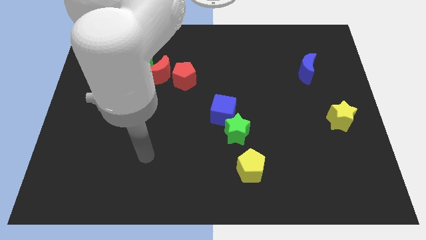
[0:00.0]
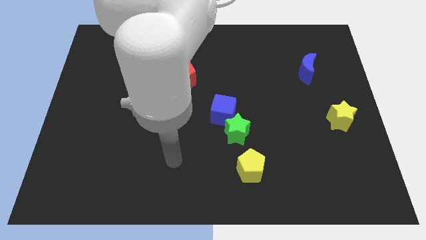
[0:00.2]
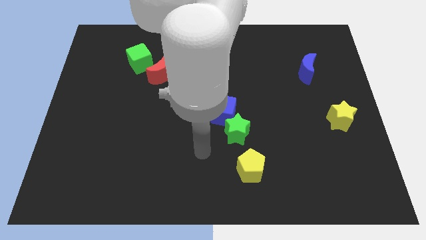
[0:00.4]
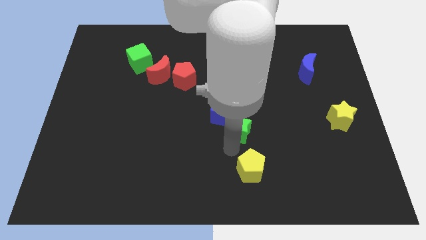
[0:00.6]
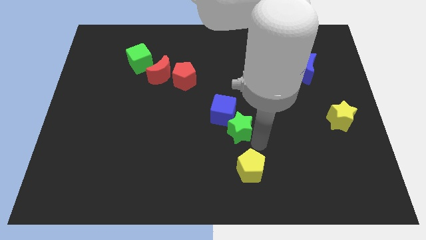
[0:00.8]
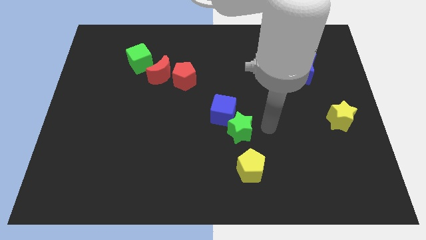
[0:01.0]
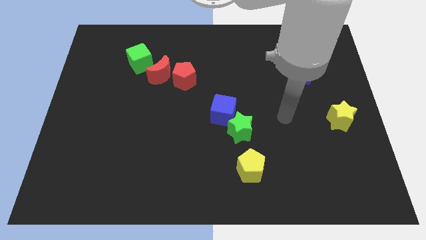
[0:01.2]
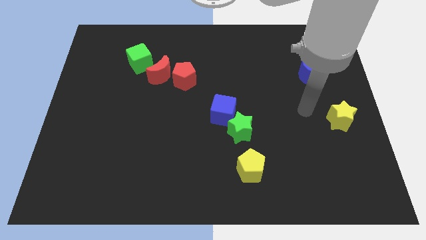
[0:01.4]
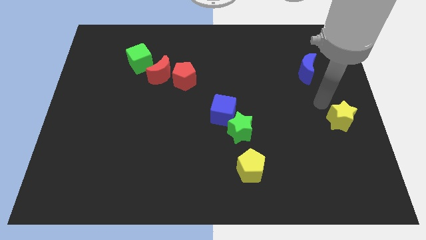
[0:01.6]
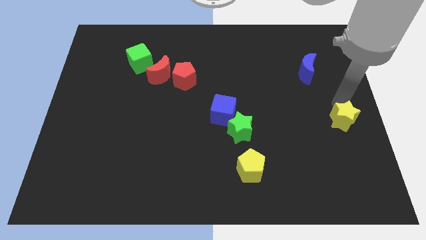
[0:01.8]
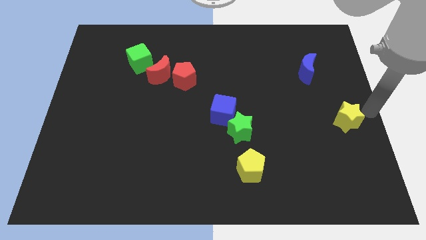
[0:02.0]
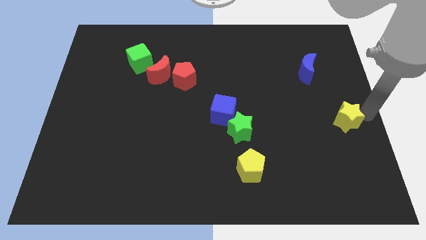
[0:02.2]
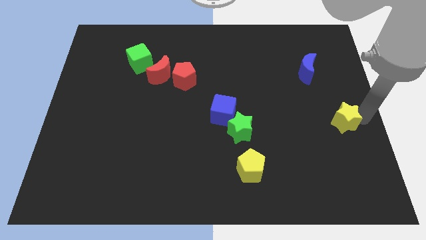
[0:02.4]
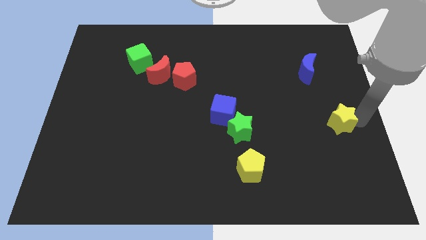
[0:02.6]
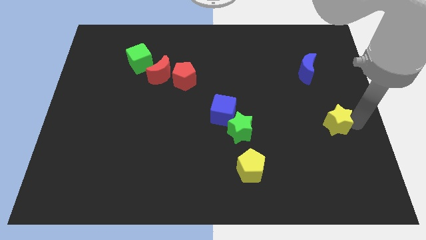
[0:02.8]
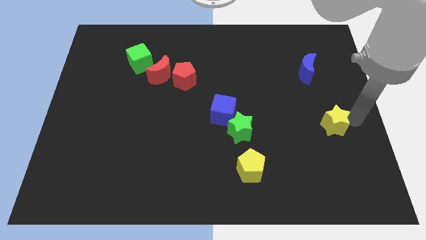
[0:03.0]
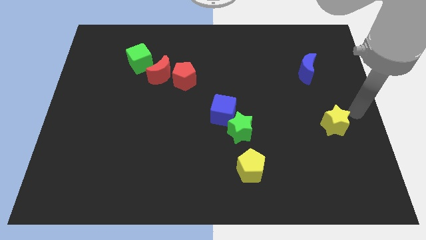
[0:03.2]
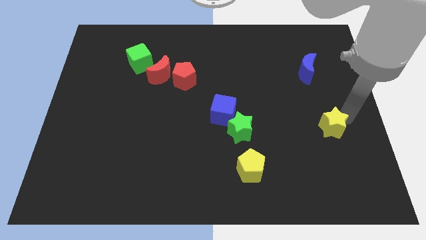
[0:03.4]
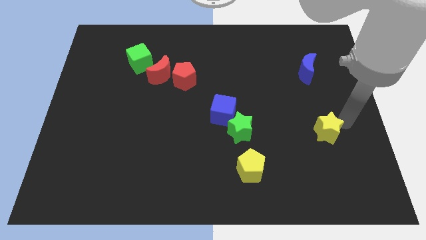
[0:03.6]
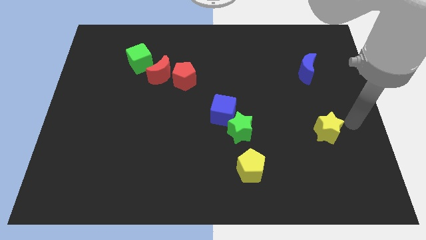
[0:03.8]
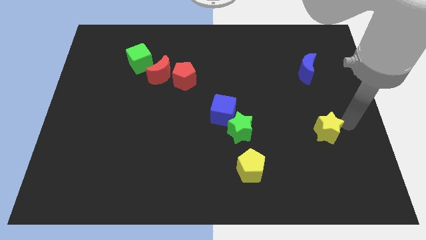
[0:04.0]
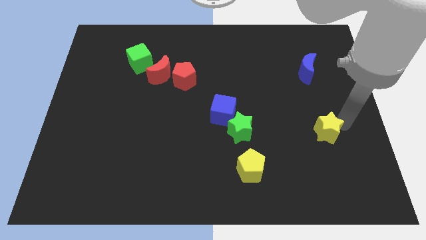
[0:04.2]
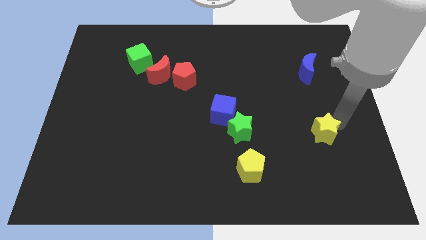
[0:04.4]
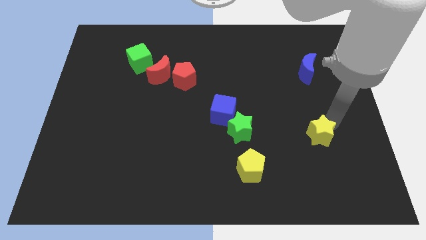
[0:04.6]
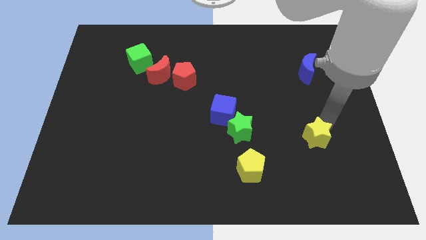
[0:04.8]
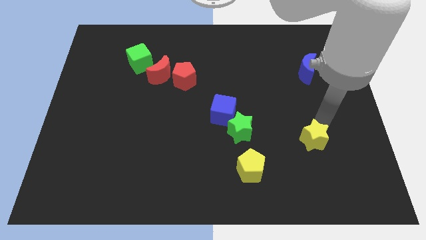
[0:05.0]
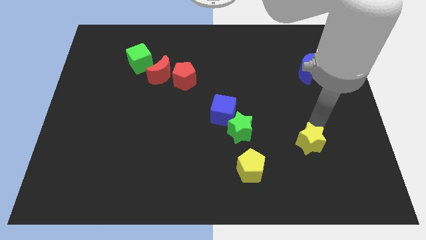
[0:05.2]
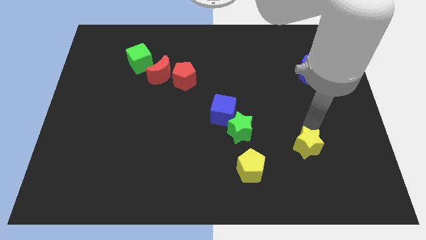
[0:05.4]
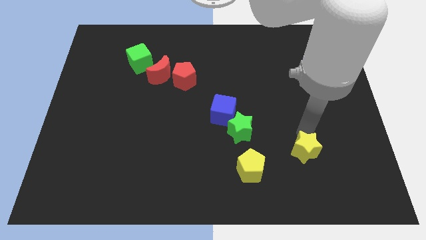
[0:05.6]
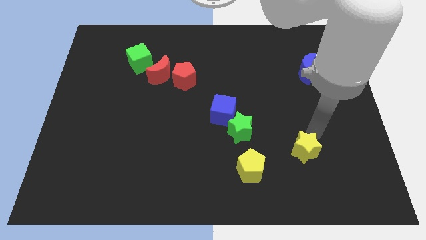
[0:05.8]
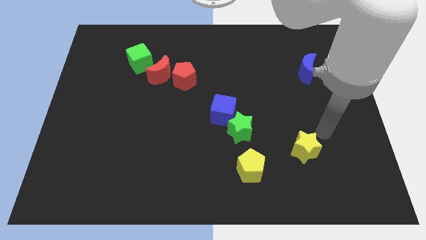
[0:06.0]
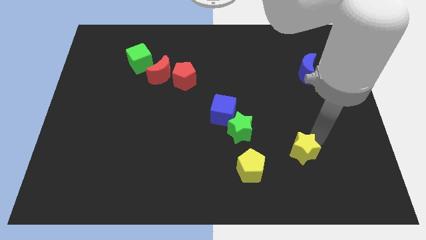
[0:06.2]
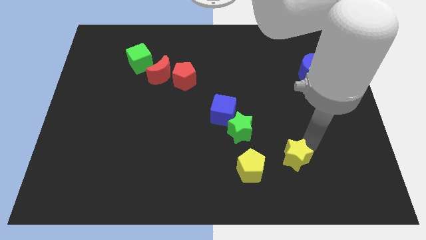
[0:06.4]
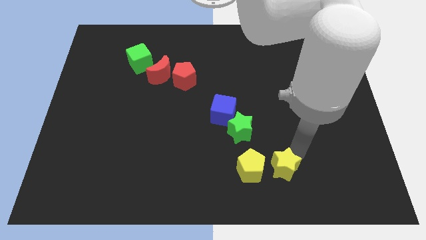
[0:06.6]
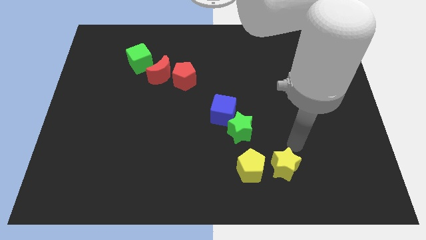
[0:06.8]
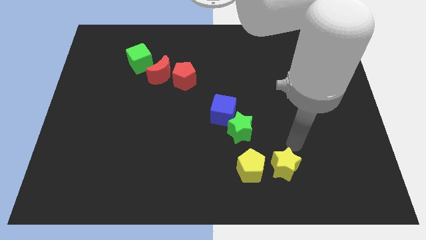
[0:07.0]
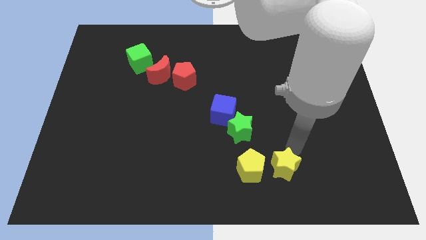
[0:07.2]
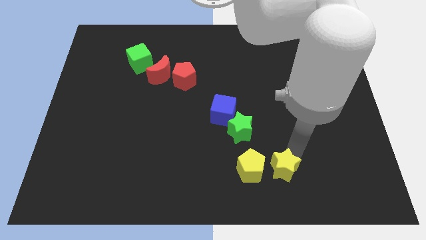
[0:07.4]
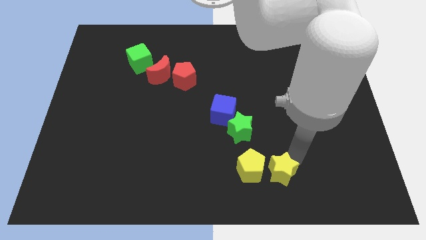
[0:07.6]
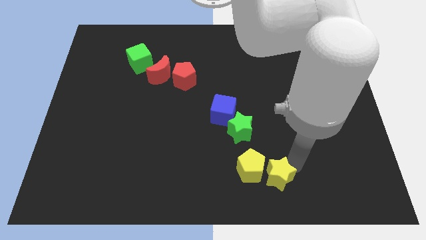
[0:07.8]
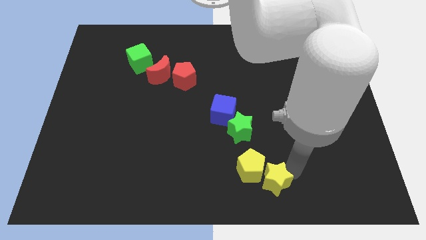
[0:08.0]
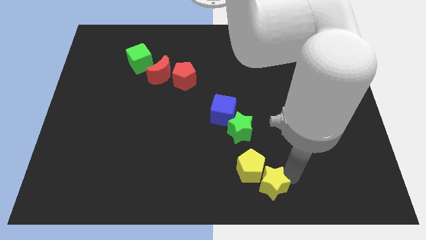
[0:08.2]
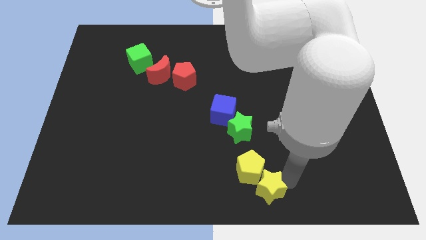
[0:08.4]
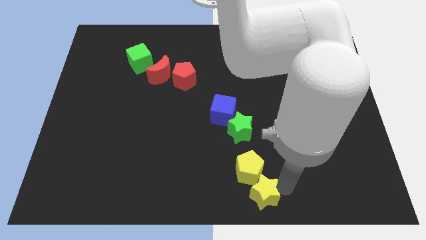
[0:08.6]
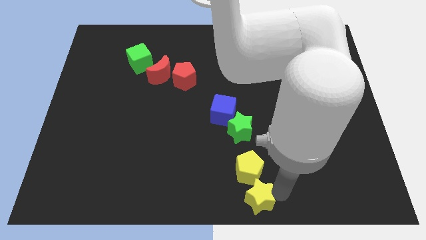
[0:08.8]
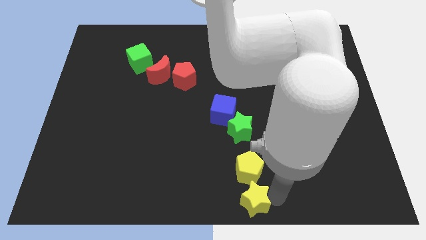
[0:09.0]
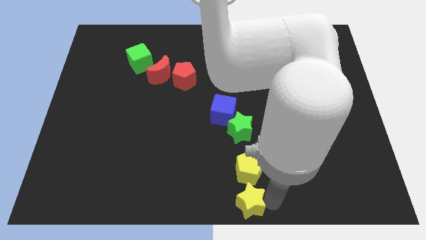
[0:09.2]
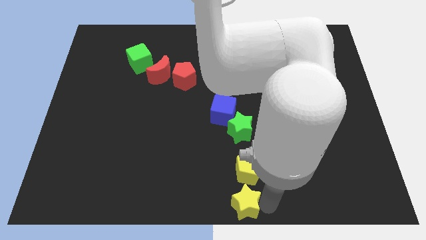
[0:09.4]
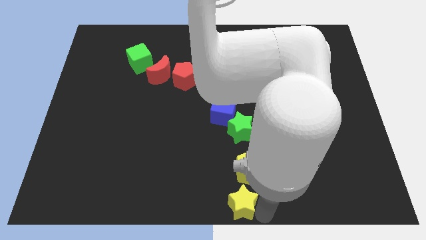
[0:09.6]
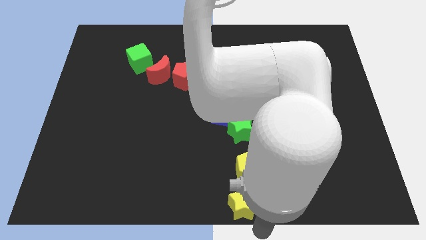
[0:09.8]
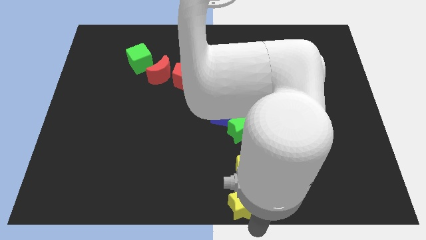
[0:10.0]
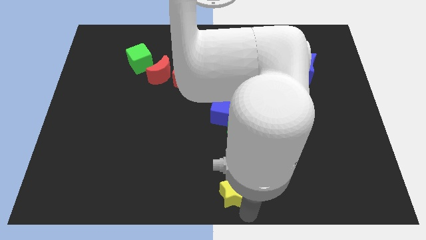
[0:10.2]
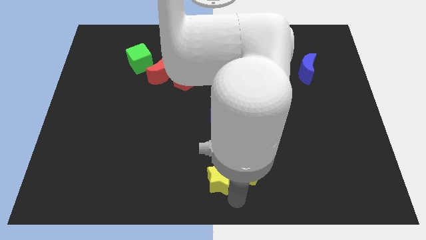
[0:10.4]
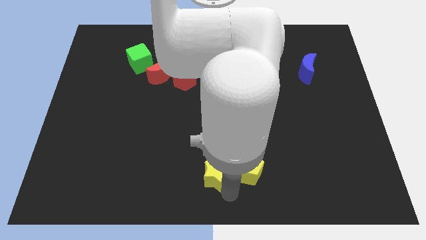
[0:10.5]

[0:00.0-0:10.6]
push the yellow star to the bottom of the blue cube

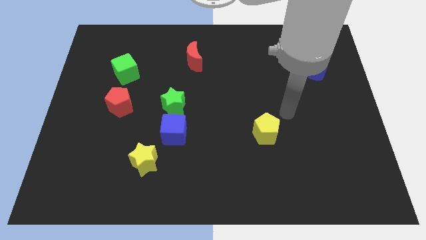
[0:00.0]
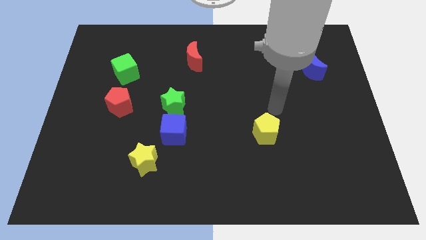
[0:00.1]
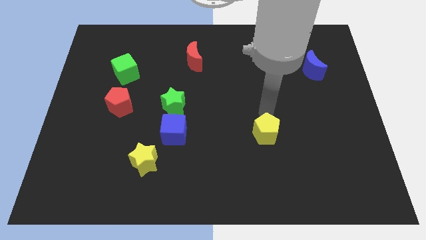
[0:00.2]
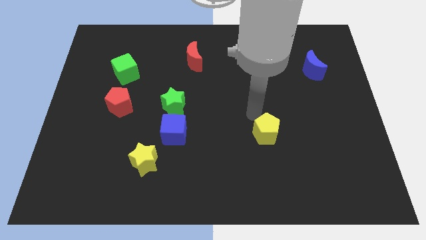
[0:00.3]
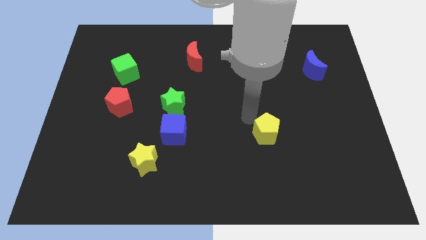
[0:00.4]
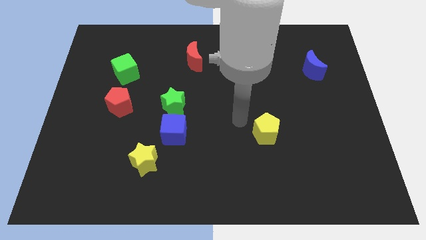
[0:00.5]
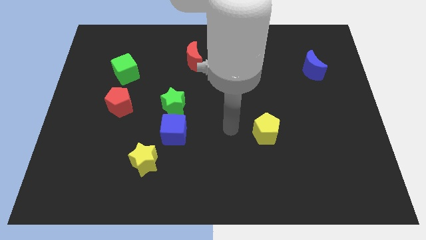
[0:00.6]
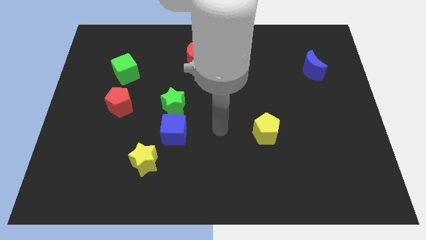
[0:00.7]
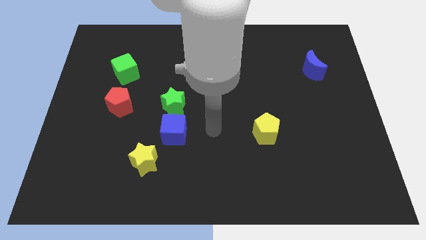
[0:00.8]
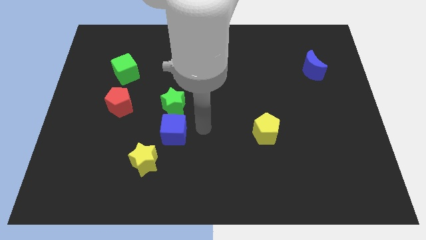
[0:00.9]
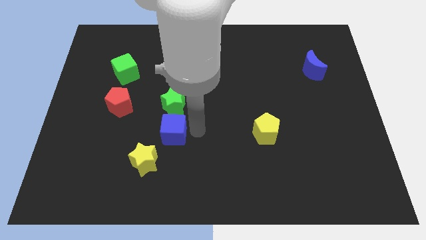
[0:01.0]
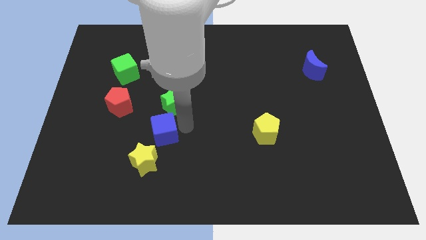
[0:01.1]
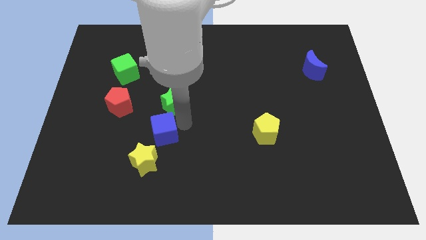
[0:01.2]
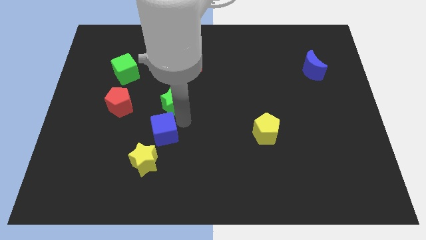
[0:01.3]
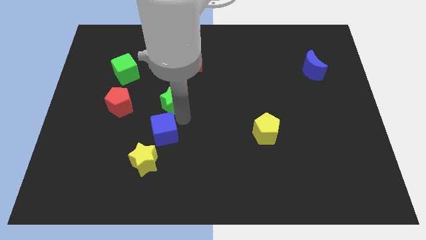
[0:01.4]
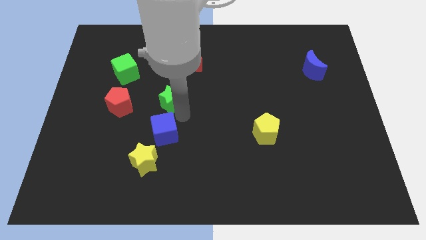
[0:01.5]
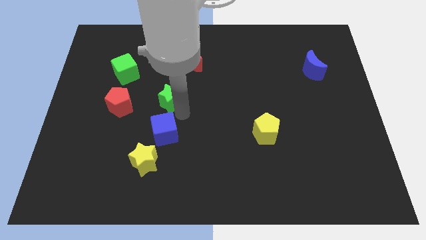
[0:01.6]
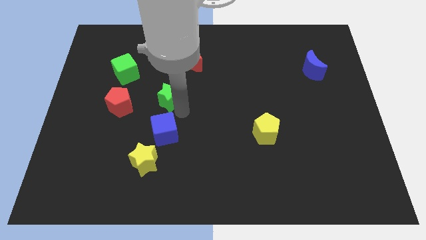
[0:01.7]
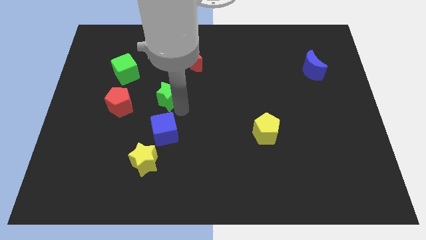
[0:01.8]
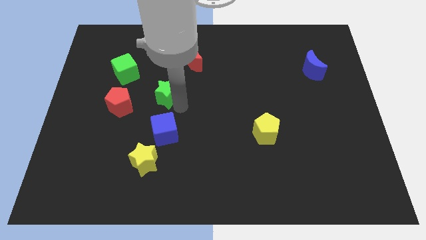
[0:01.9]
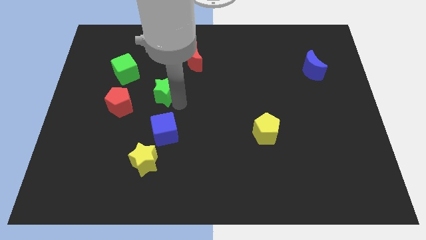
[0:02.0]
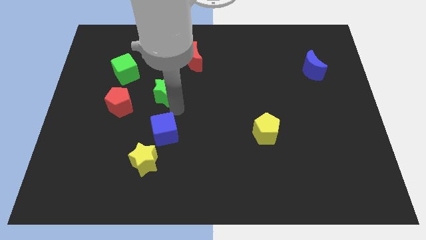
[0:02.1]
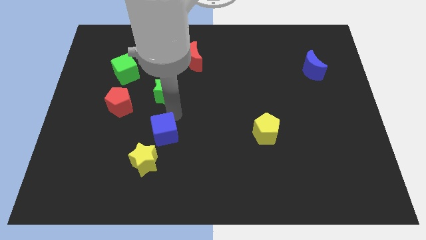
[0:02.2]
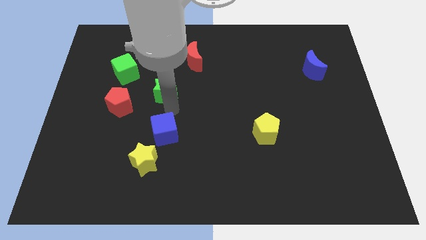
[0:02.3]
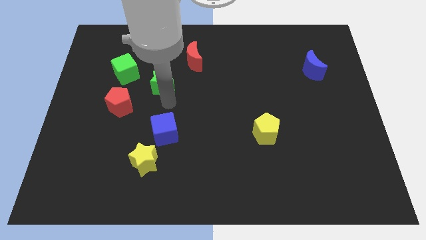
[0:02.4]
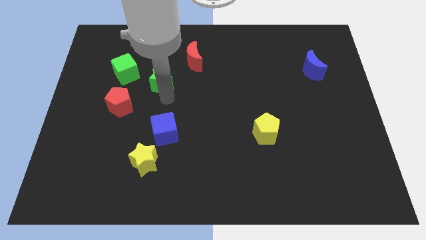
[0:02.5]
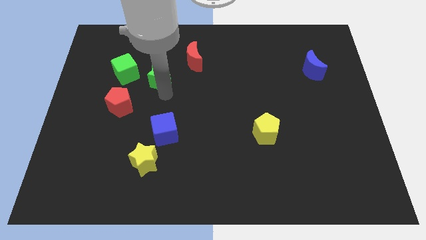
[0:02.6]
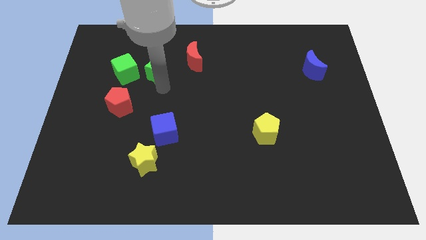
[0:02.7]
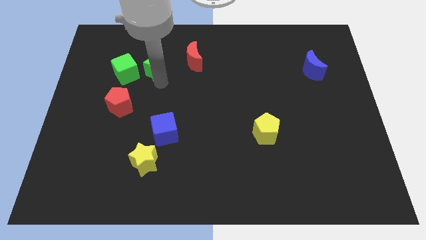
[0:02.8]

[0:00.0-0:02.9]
move the green star diagonally up and to the right of the green cube
